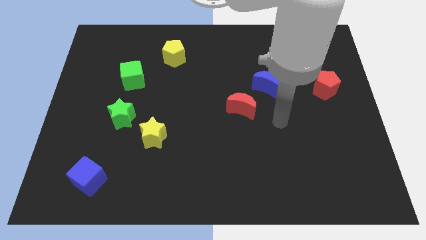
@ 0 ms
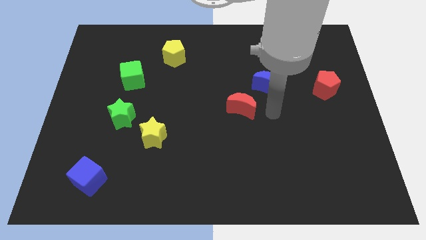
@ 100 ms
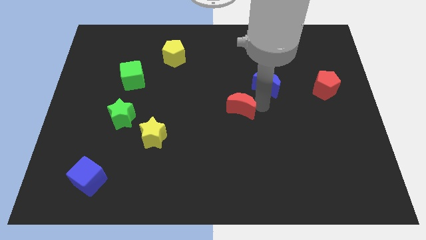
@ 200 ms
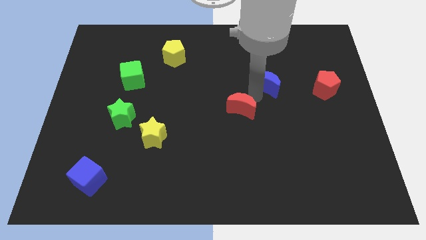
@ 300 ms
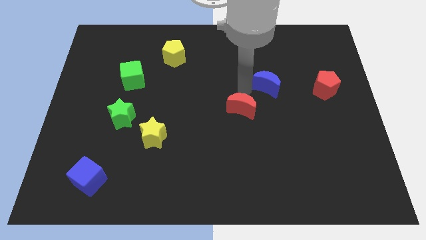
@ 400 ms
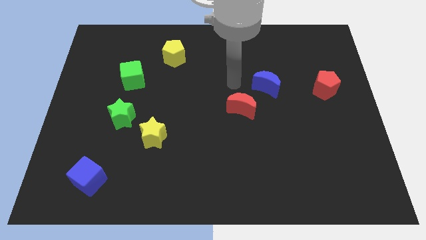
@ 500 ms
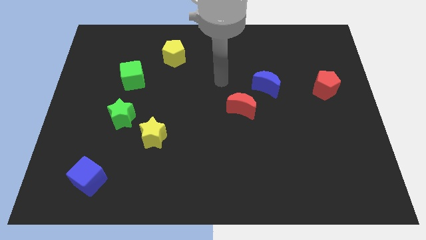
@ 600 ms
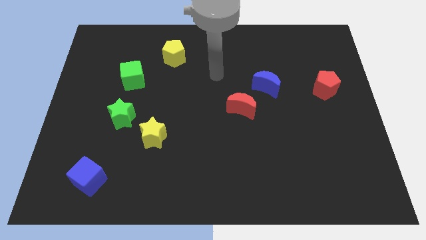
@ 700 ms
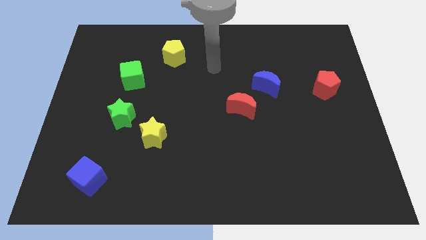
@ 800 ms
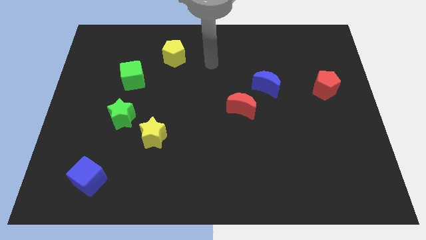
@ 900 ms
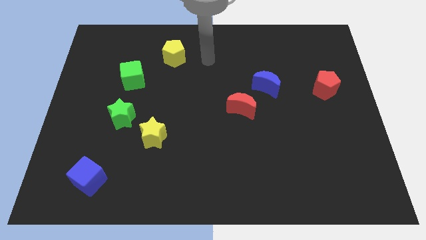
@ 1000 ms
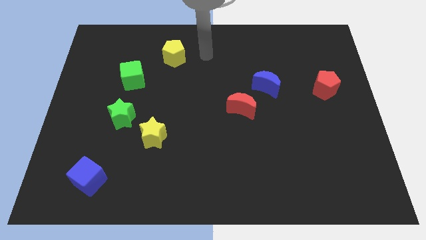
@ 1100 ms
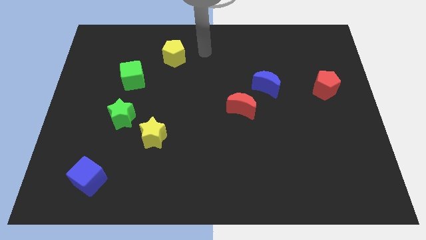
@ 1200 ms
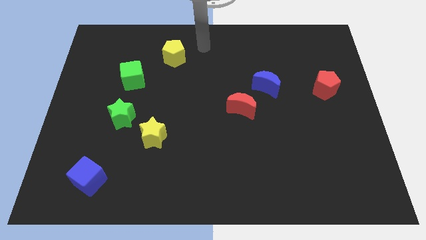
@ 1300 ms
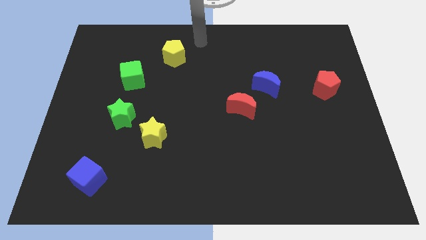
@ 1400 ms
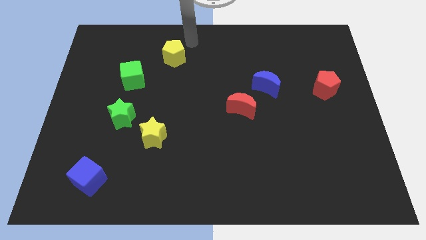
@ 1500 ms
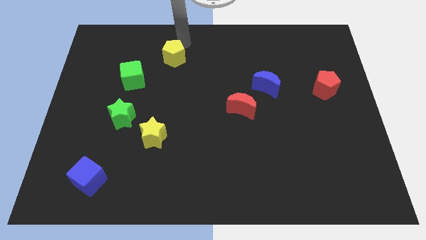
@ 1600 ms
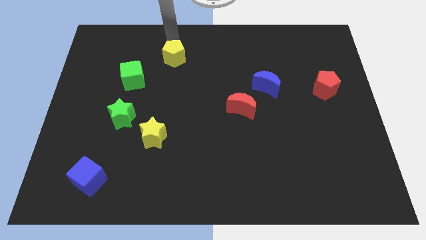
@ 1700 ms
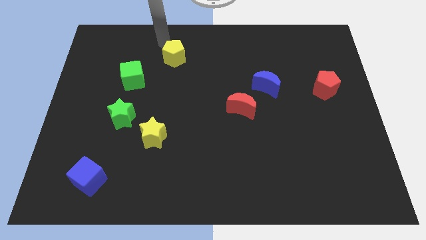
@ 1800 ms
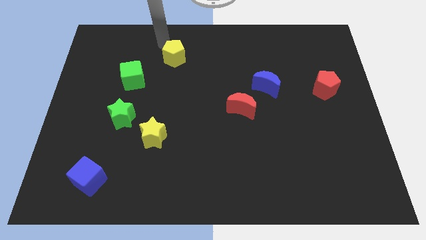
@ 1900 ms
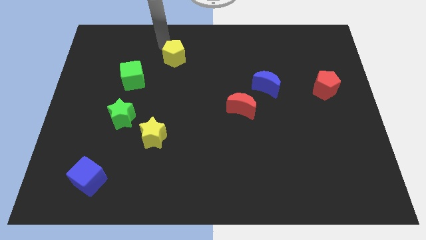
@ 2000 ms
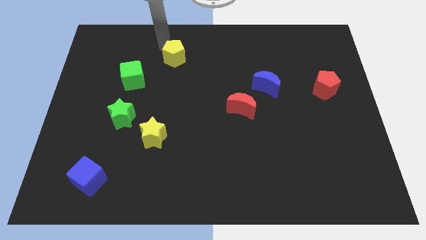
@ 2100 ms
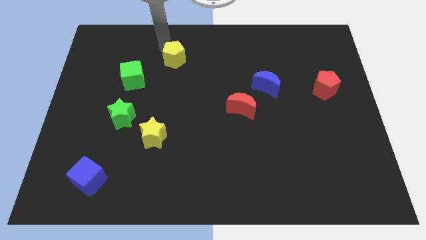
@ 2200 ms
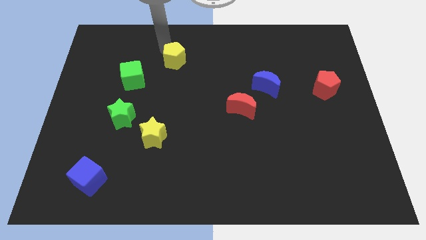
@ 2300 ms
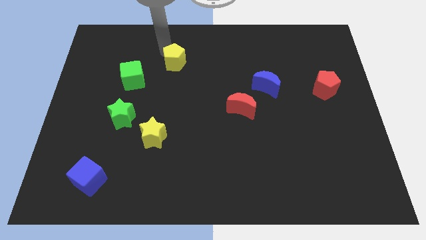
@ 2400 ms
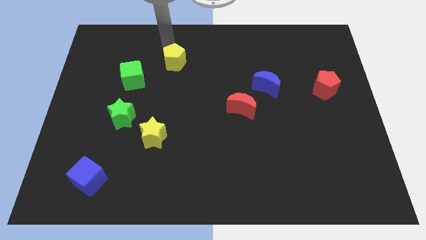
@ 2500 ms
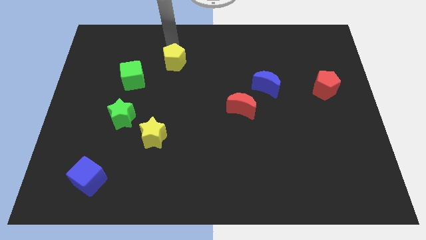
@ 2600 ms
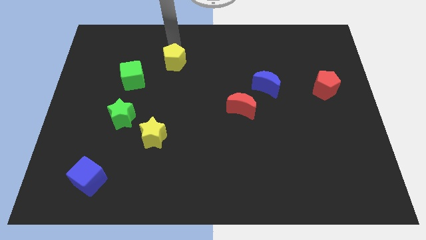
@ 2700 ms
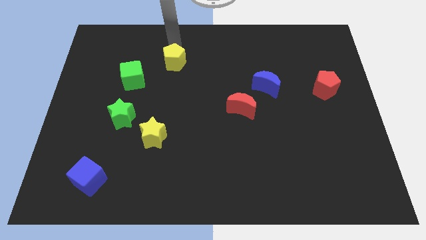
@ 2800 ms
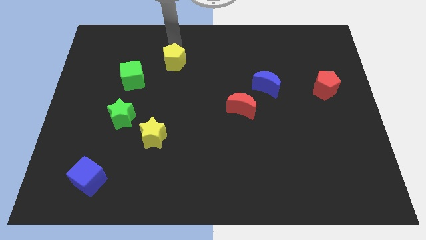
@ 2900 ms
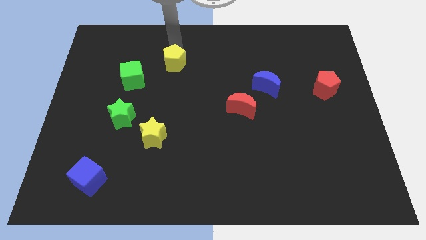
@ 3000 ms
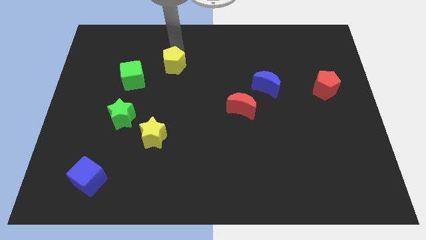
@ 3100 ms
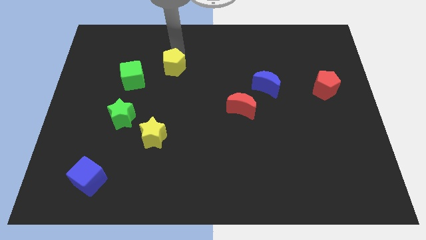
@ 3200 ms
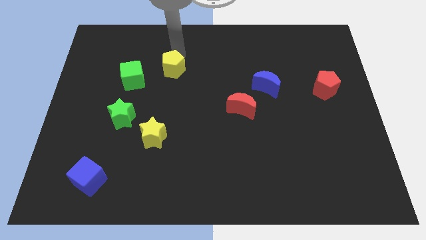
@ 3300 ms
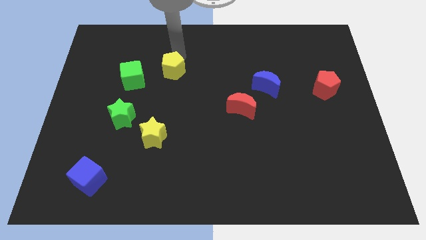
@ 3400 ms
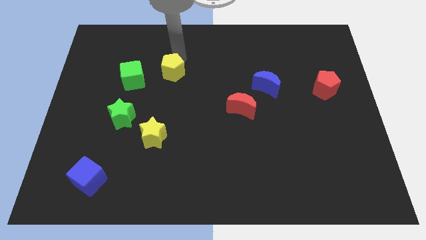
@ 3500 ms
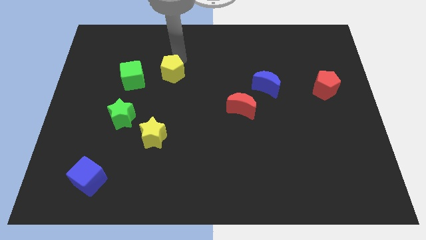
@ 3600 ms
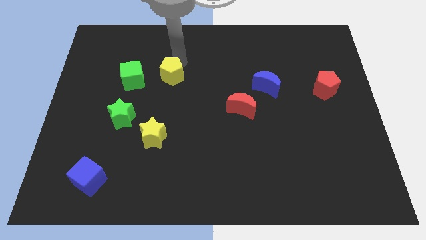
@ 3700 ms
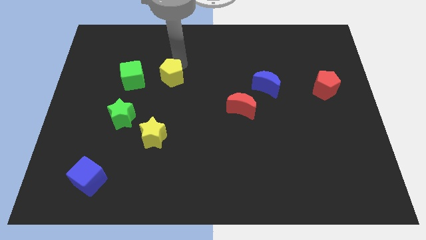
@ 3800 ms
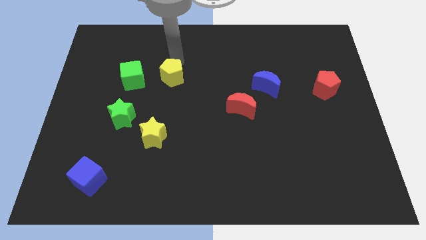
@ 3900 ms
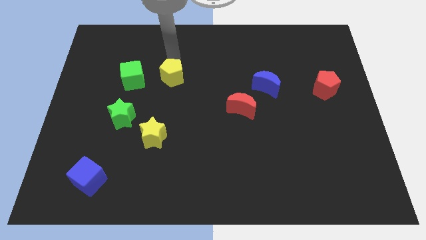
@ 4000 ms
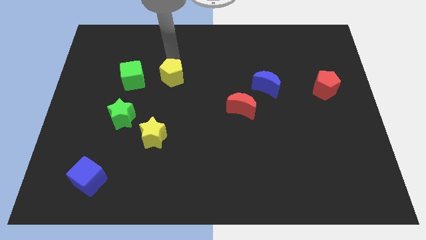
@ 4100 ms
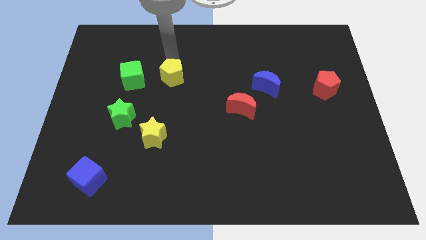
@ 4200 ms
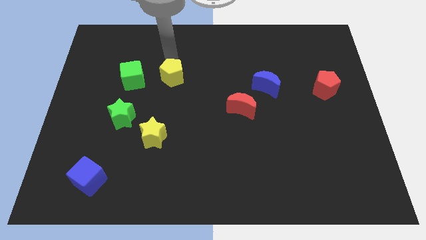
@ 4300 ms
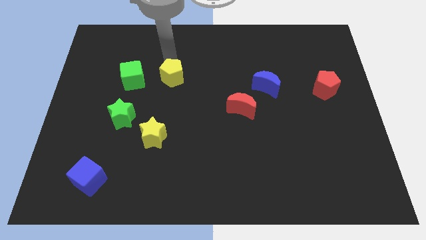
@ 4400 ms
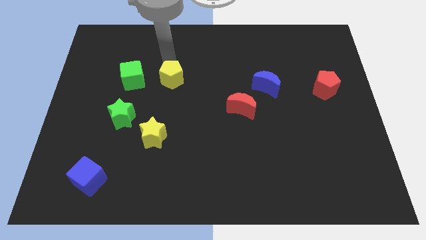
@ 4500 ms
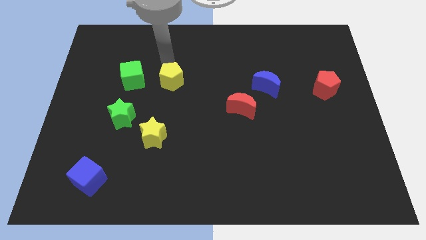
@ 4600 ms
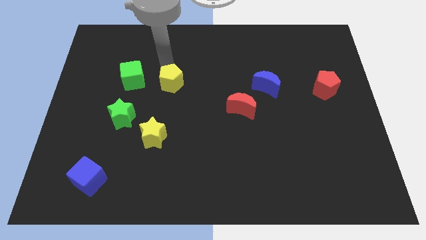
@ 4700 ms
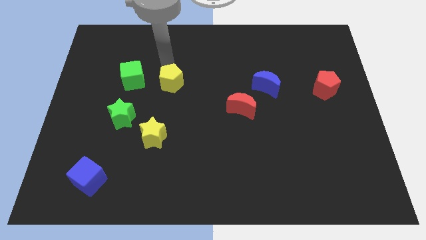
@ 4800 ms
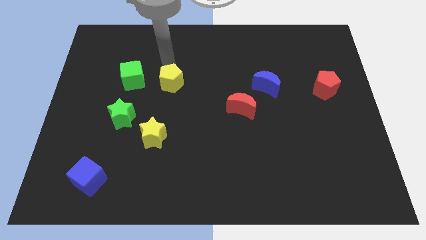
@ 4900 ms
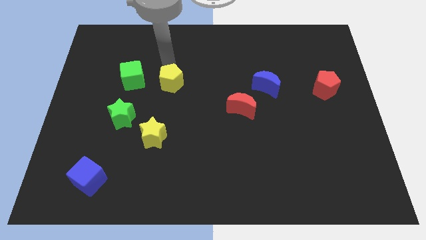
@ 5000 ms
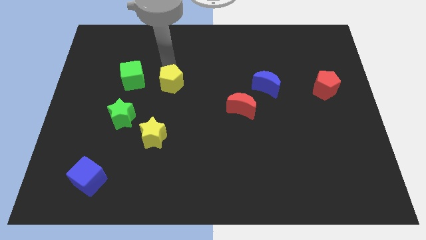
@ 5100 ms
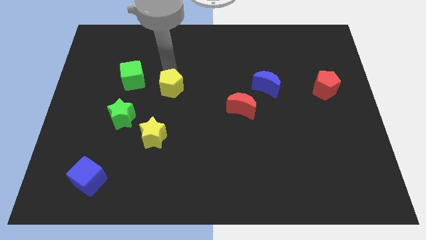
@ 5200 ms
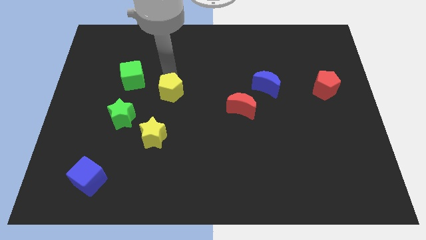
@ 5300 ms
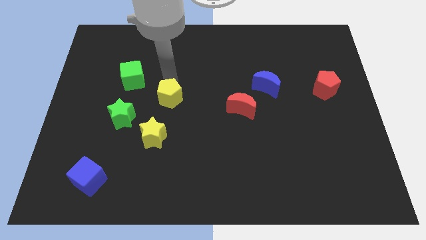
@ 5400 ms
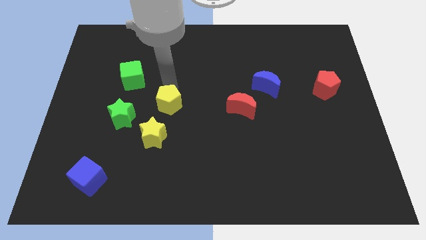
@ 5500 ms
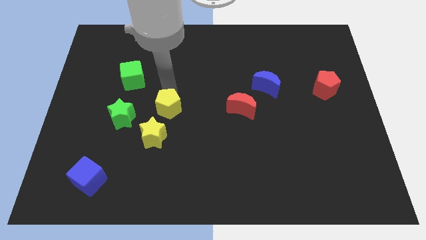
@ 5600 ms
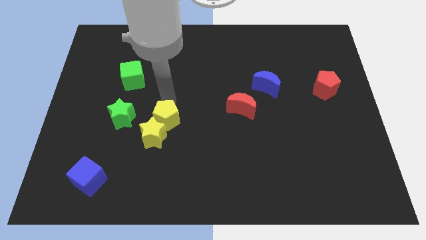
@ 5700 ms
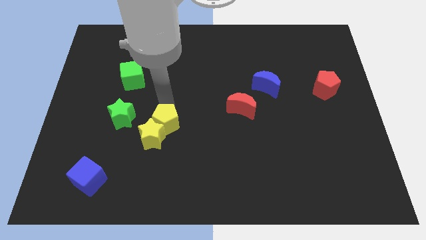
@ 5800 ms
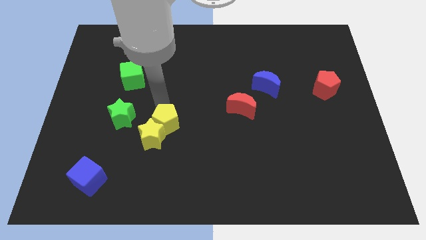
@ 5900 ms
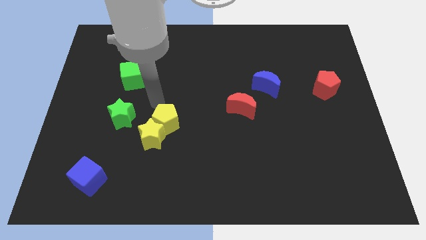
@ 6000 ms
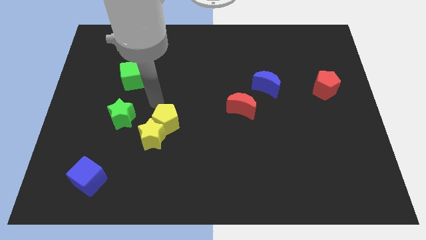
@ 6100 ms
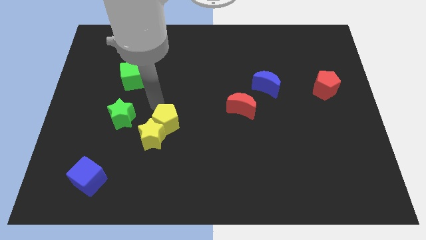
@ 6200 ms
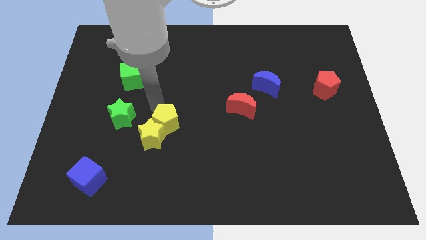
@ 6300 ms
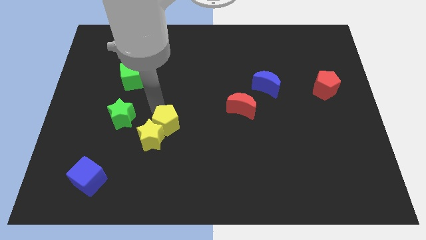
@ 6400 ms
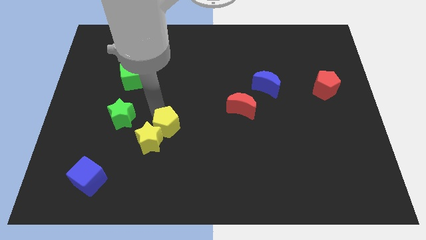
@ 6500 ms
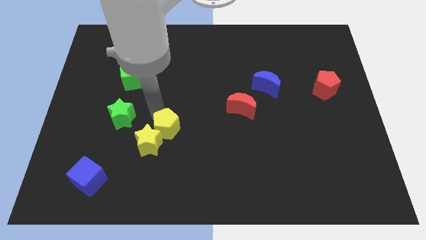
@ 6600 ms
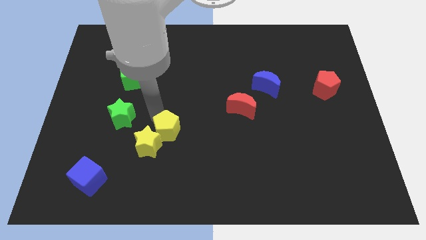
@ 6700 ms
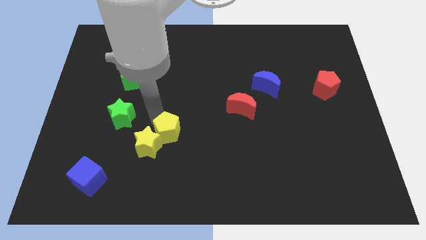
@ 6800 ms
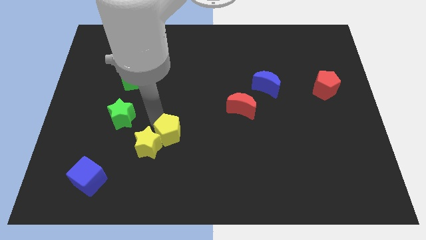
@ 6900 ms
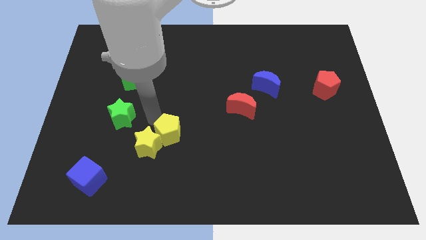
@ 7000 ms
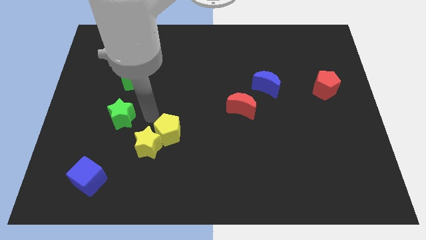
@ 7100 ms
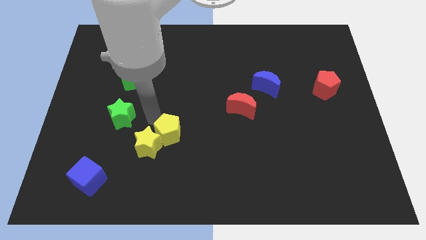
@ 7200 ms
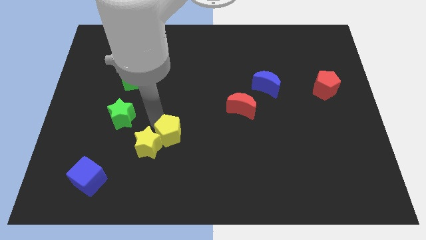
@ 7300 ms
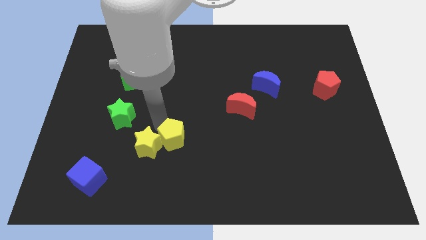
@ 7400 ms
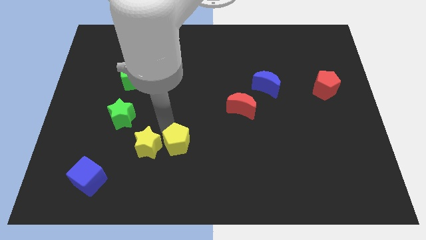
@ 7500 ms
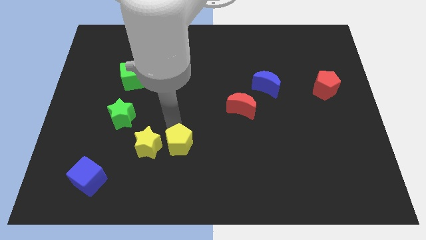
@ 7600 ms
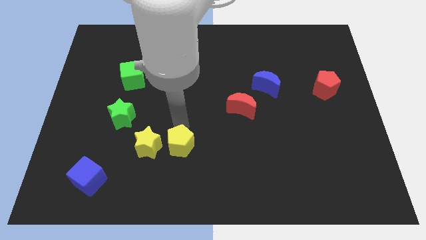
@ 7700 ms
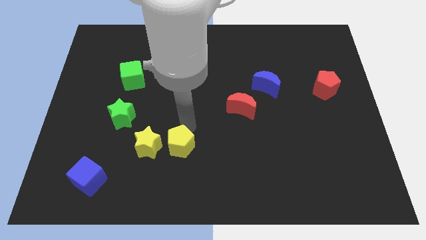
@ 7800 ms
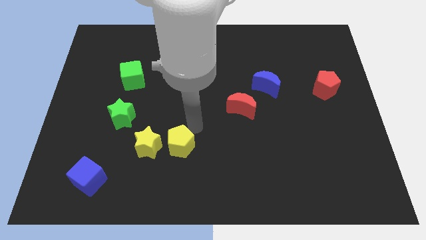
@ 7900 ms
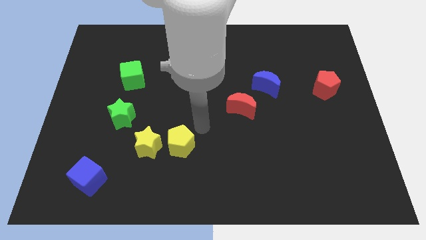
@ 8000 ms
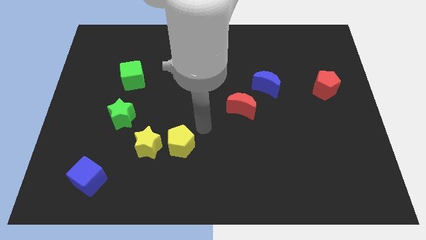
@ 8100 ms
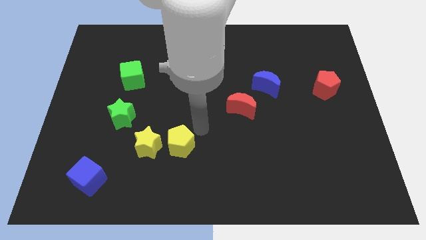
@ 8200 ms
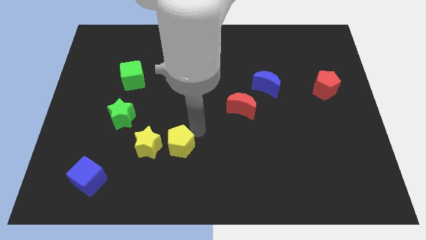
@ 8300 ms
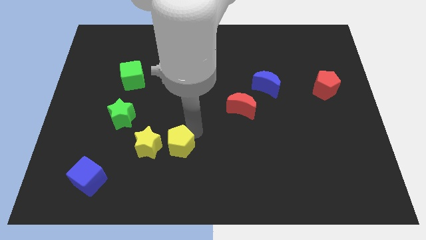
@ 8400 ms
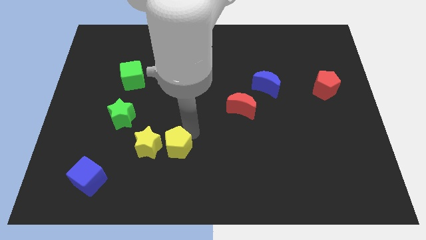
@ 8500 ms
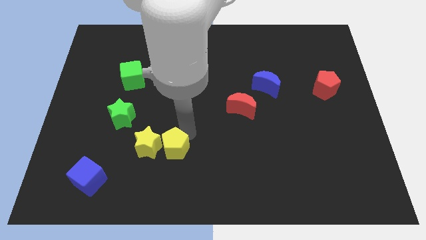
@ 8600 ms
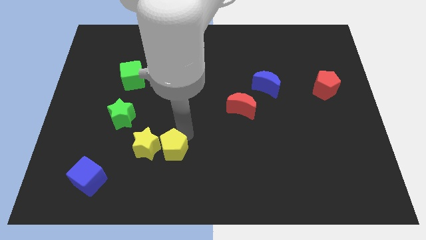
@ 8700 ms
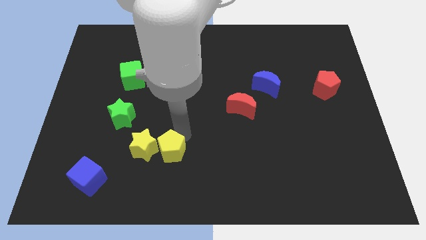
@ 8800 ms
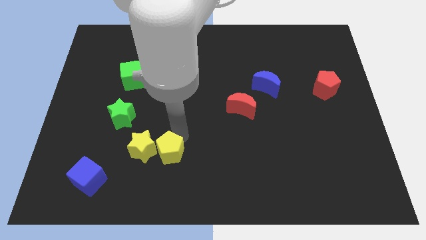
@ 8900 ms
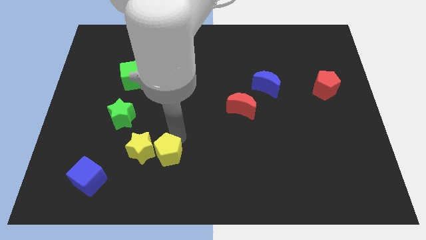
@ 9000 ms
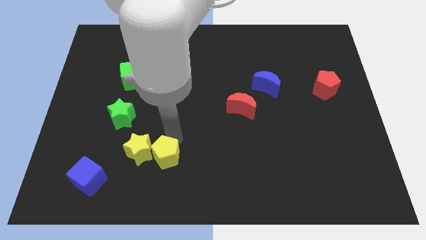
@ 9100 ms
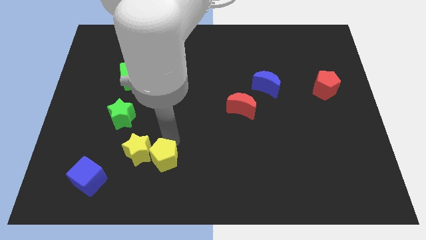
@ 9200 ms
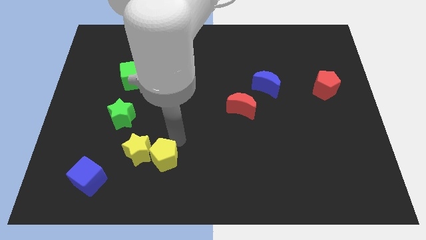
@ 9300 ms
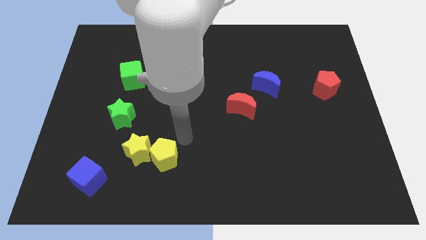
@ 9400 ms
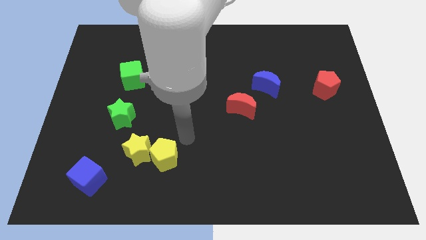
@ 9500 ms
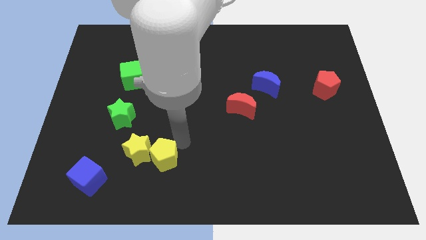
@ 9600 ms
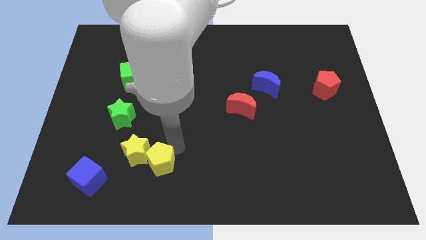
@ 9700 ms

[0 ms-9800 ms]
move the yellow pentagon right of the blue cube
